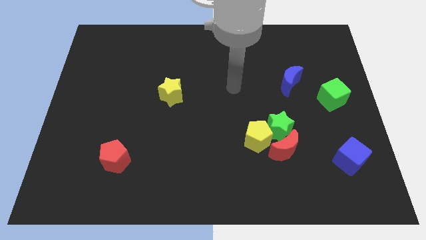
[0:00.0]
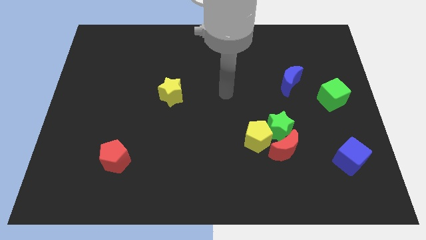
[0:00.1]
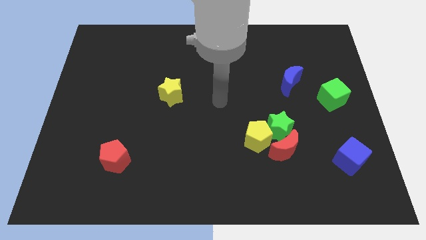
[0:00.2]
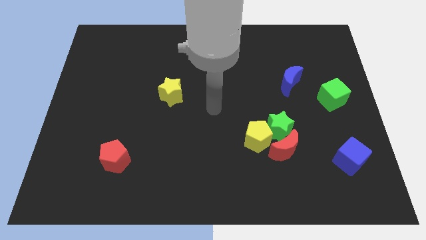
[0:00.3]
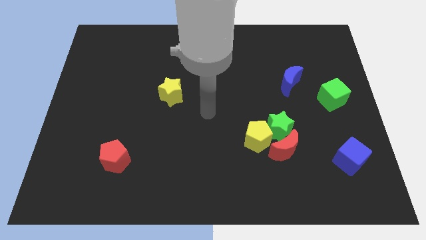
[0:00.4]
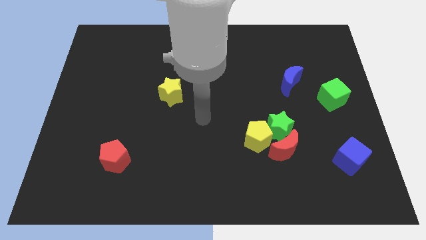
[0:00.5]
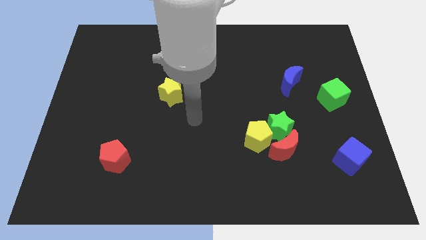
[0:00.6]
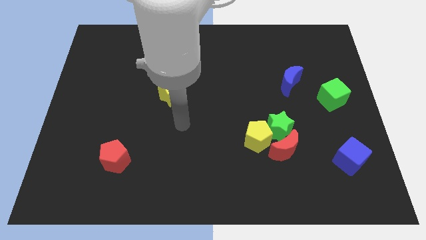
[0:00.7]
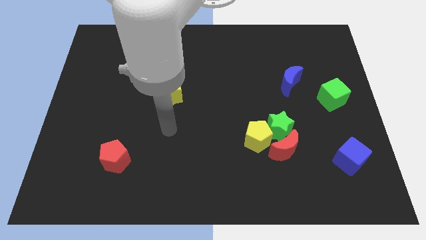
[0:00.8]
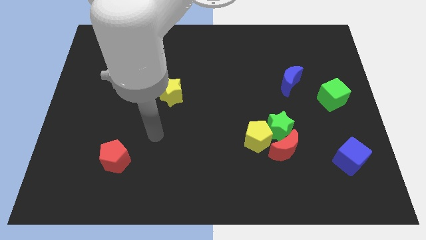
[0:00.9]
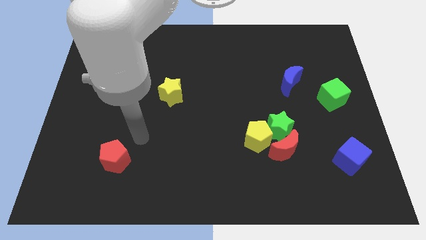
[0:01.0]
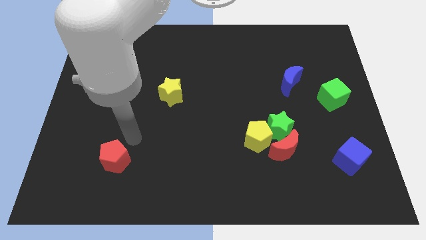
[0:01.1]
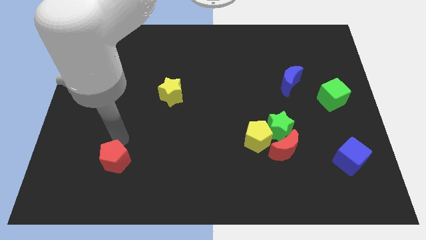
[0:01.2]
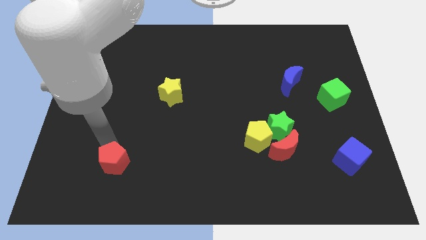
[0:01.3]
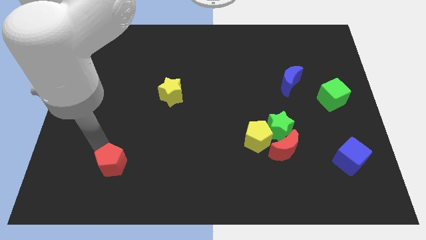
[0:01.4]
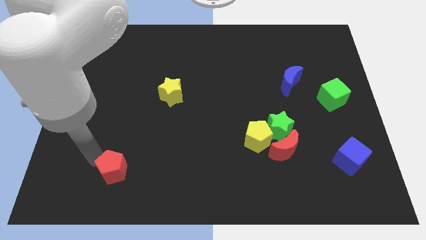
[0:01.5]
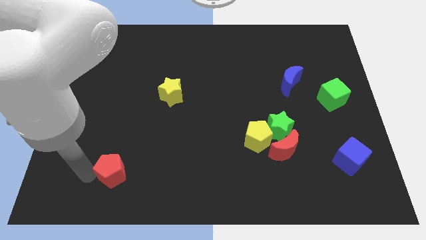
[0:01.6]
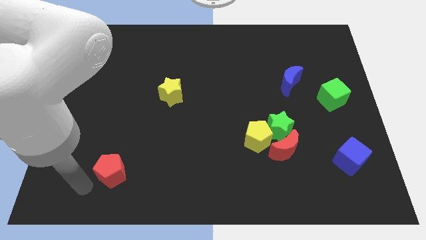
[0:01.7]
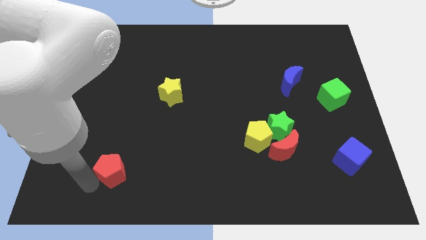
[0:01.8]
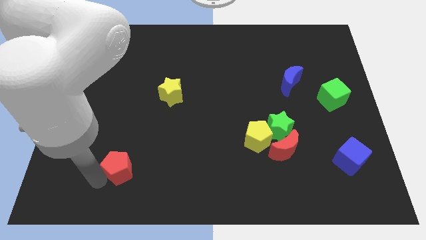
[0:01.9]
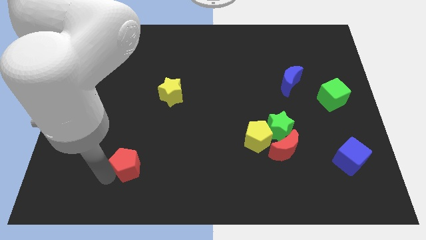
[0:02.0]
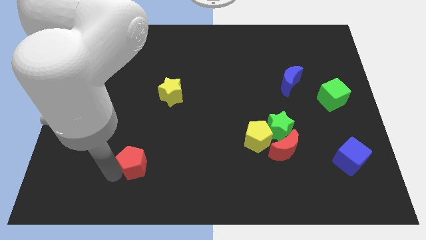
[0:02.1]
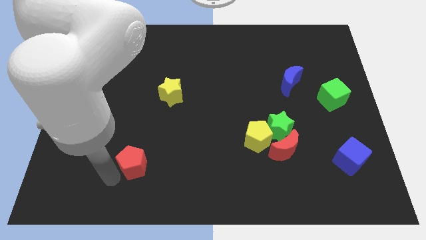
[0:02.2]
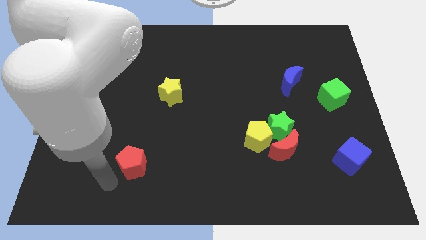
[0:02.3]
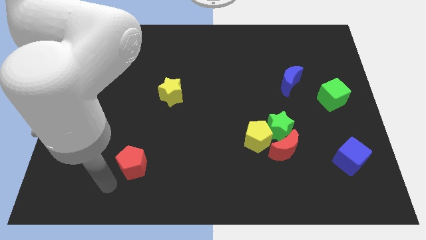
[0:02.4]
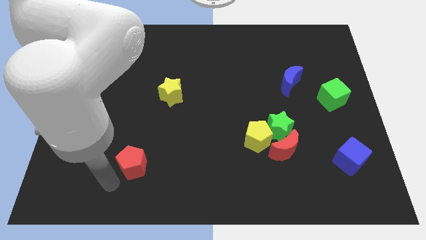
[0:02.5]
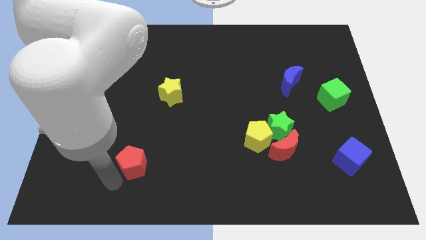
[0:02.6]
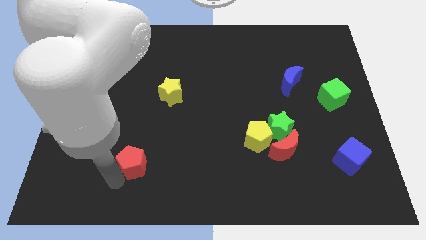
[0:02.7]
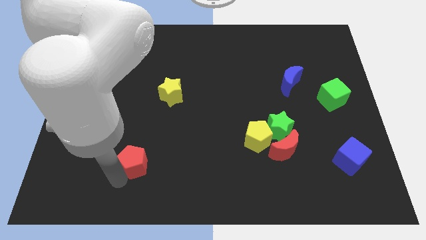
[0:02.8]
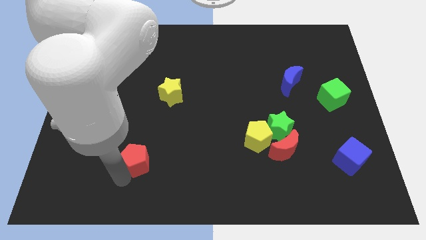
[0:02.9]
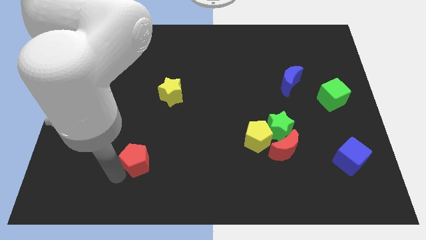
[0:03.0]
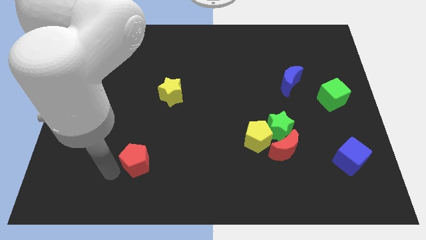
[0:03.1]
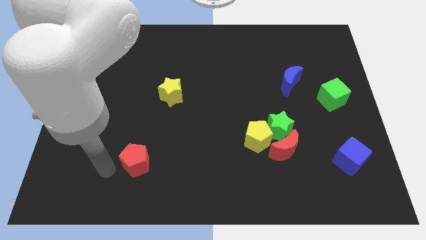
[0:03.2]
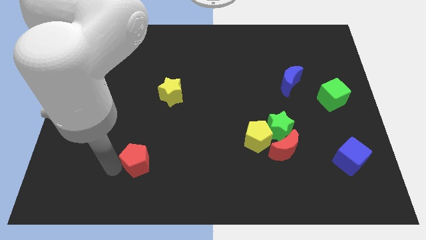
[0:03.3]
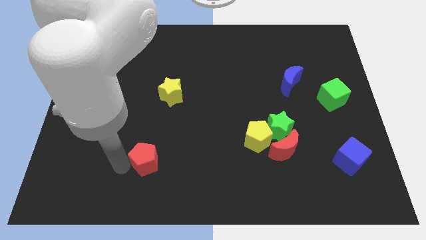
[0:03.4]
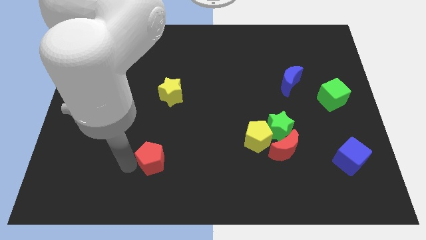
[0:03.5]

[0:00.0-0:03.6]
slightly move the red pentagon to the right

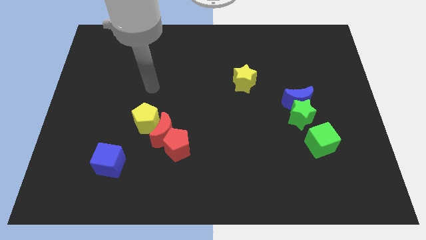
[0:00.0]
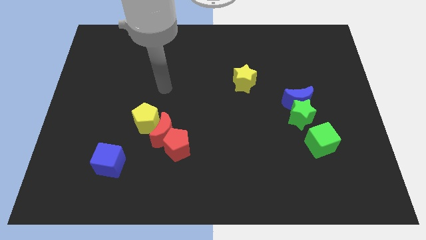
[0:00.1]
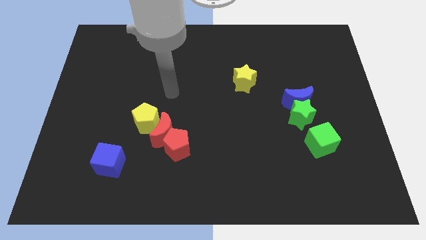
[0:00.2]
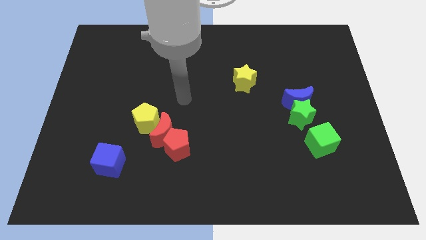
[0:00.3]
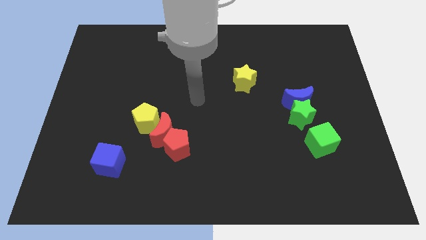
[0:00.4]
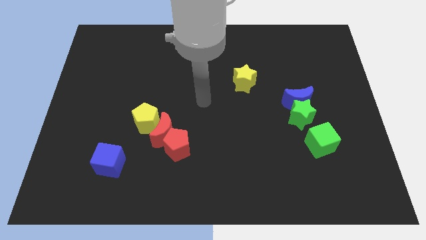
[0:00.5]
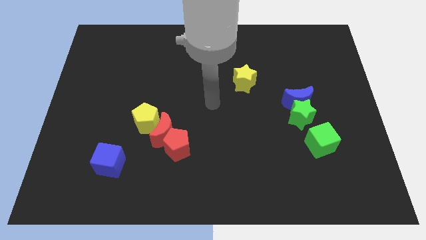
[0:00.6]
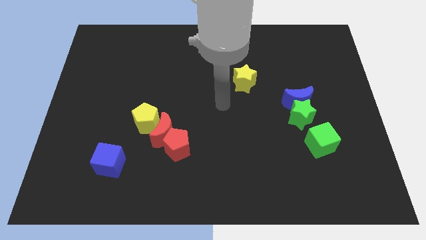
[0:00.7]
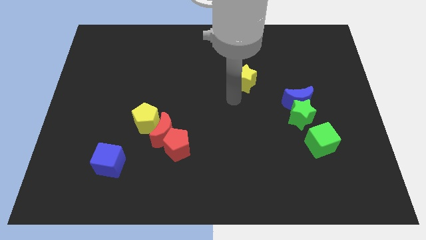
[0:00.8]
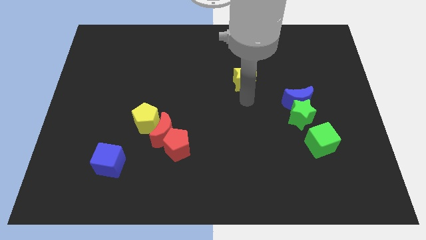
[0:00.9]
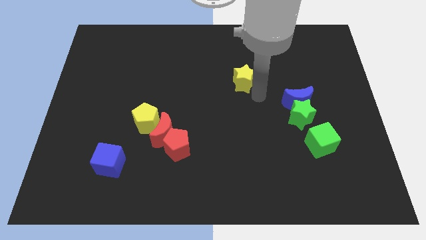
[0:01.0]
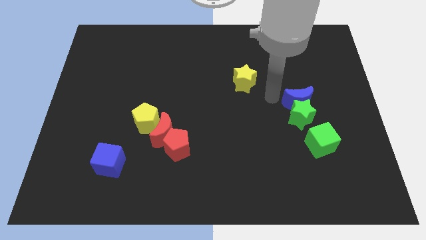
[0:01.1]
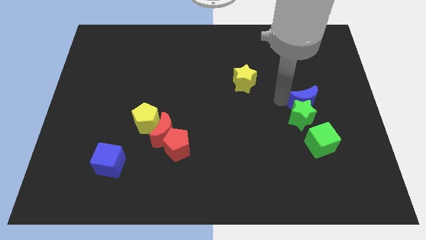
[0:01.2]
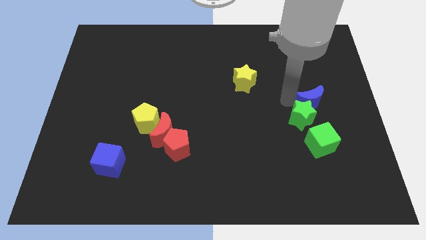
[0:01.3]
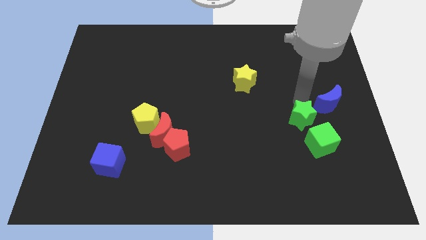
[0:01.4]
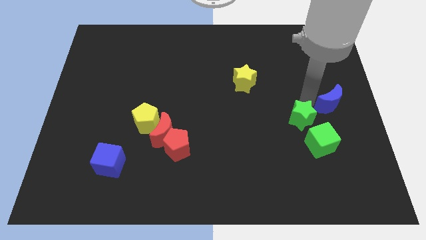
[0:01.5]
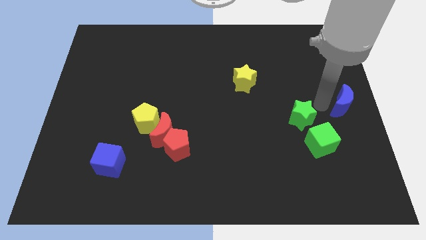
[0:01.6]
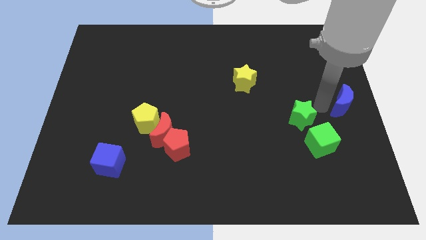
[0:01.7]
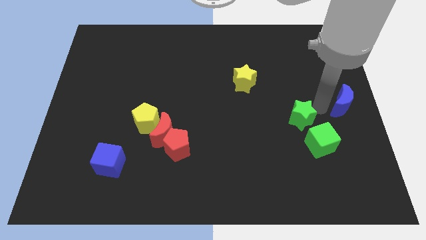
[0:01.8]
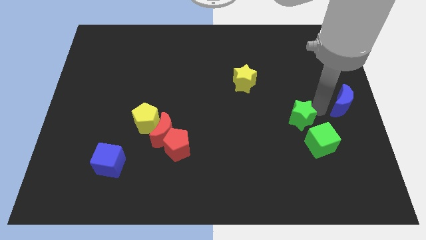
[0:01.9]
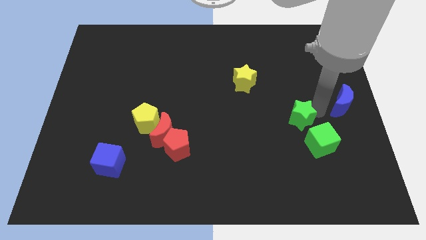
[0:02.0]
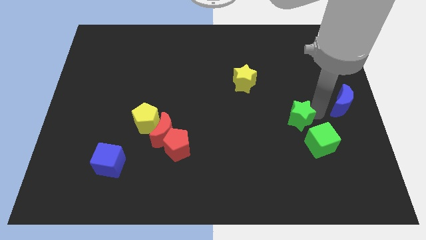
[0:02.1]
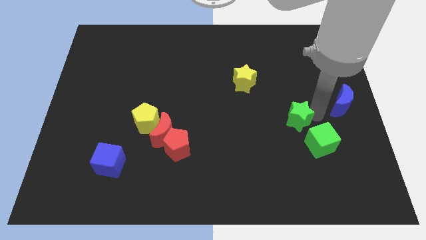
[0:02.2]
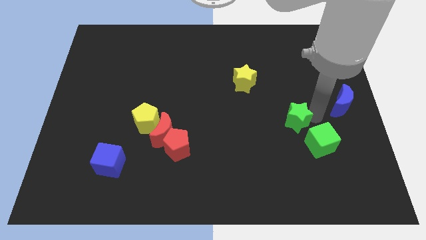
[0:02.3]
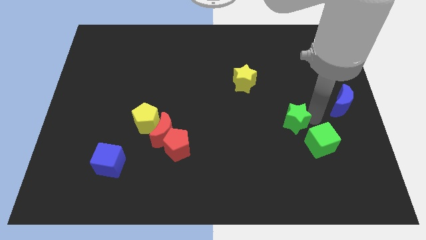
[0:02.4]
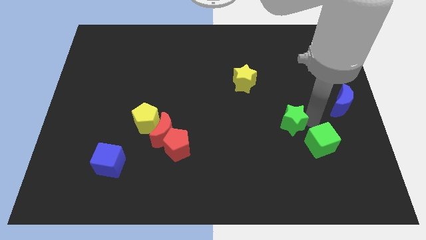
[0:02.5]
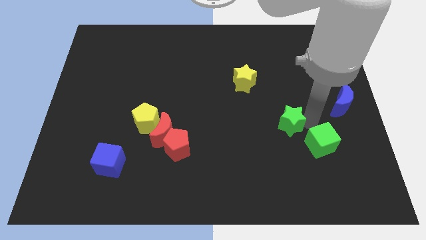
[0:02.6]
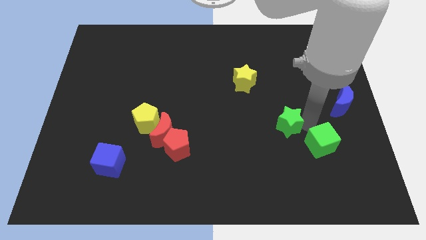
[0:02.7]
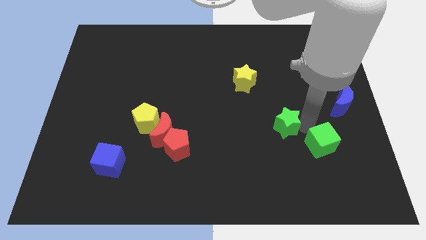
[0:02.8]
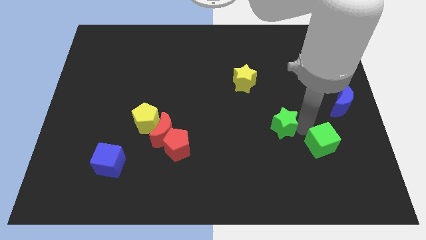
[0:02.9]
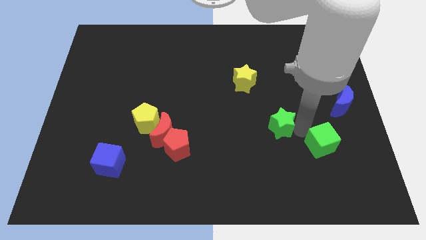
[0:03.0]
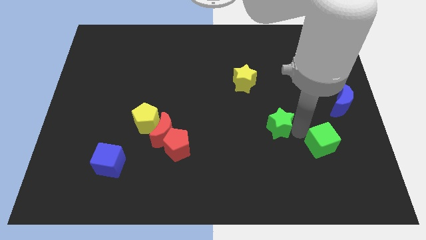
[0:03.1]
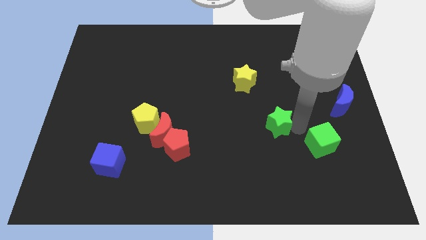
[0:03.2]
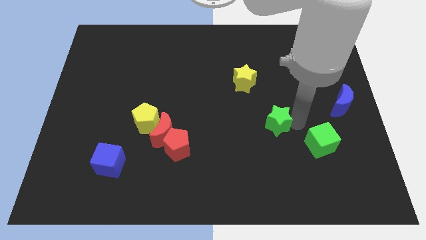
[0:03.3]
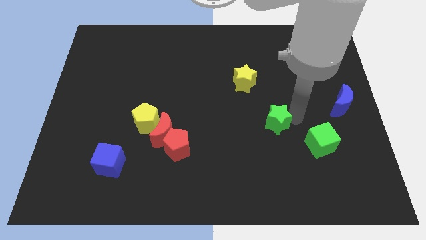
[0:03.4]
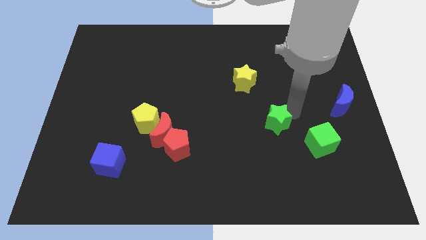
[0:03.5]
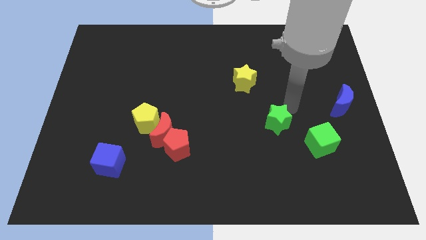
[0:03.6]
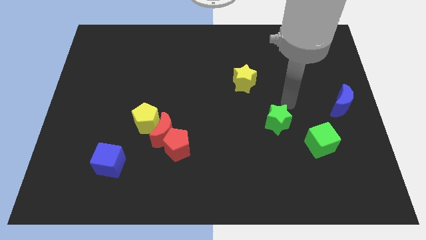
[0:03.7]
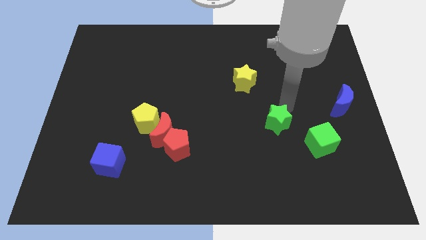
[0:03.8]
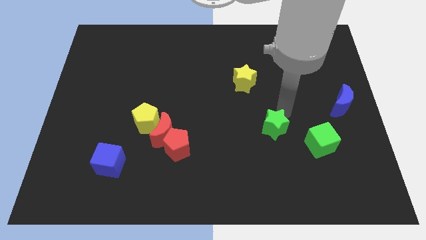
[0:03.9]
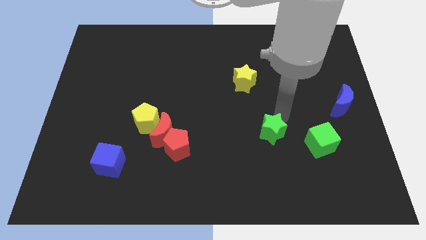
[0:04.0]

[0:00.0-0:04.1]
slide the green star slightly diagonally downwards and to the left
